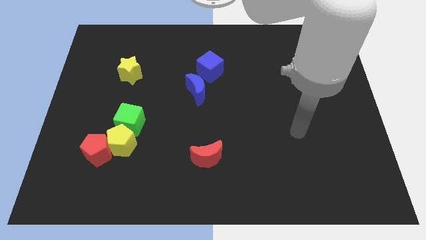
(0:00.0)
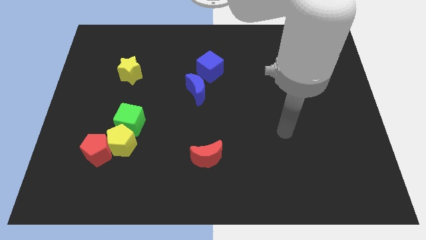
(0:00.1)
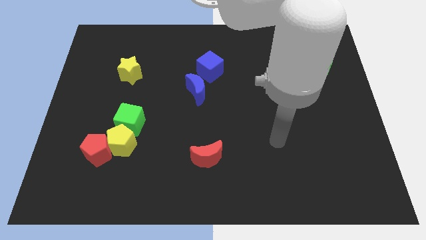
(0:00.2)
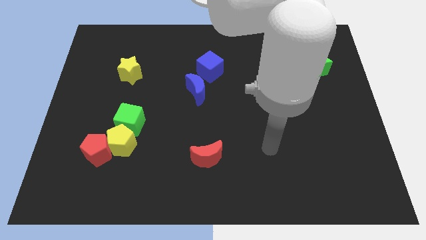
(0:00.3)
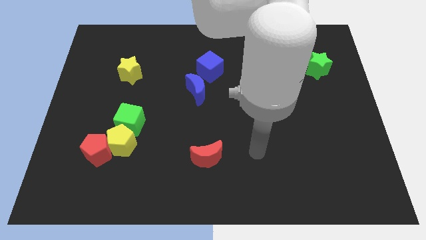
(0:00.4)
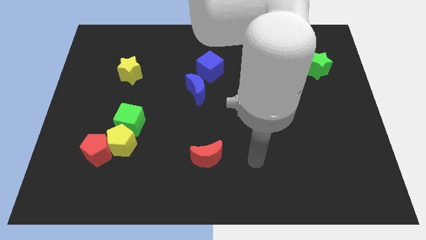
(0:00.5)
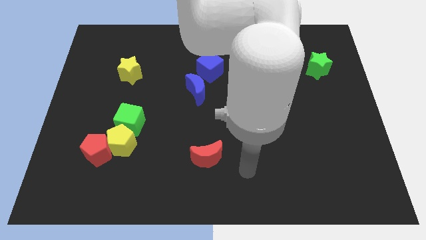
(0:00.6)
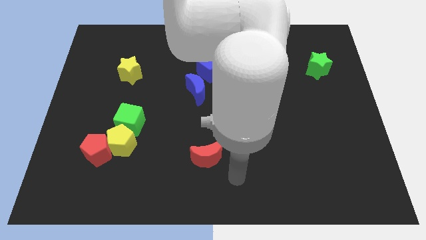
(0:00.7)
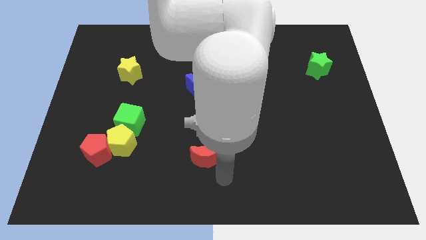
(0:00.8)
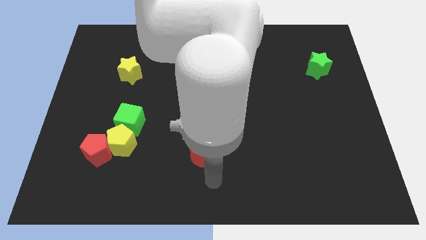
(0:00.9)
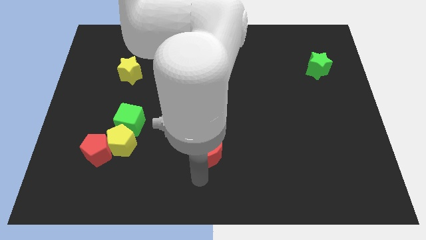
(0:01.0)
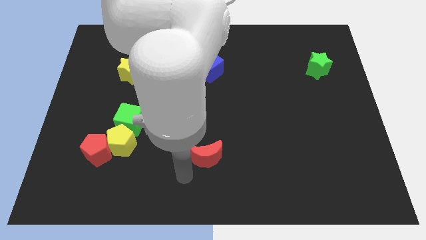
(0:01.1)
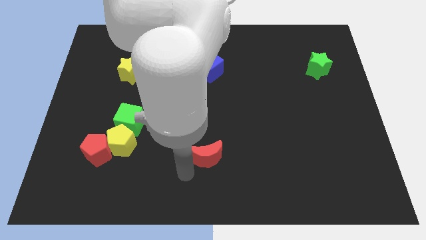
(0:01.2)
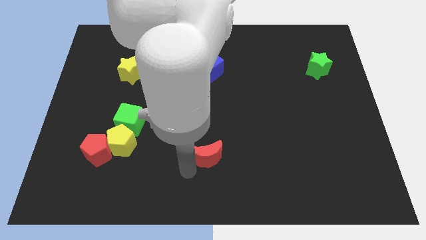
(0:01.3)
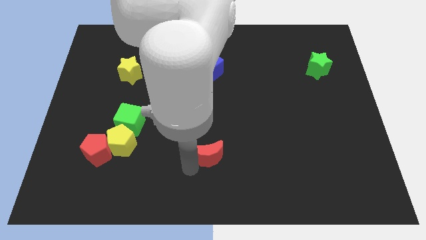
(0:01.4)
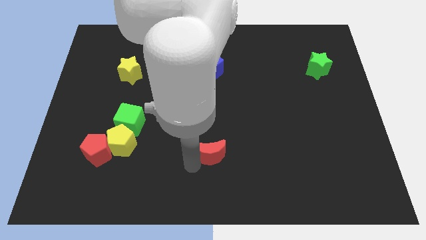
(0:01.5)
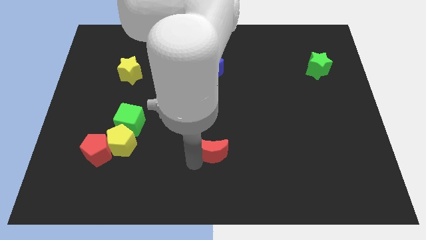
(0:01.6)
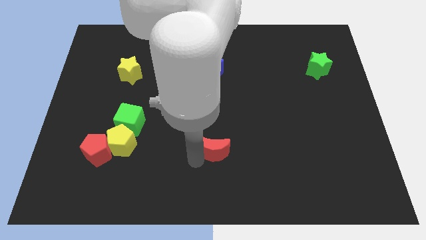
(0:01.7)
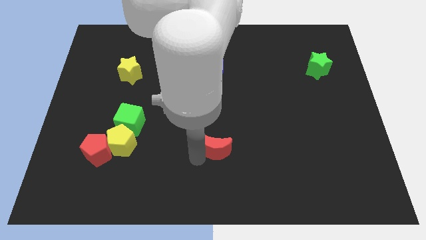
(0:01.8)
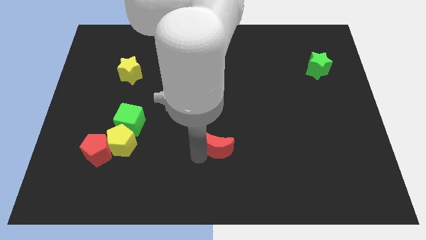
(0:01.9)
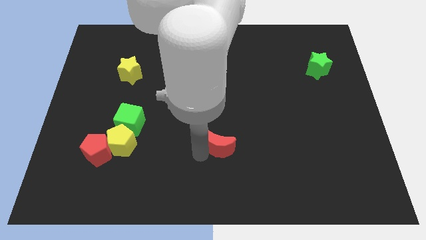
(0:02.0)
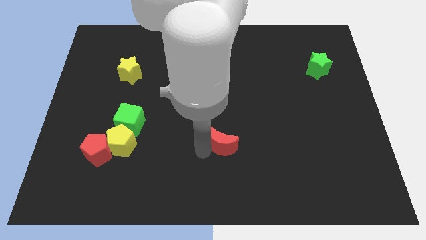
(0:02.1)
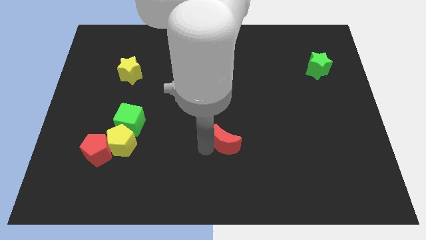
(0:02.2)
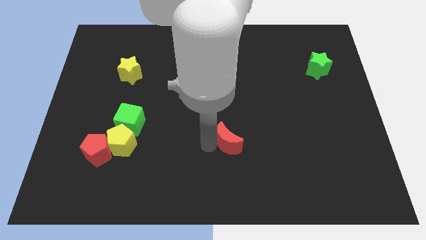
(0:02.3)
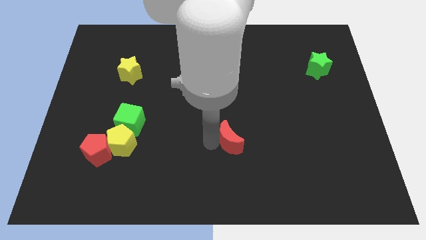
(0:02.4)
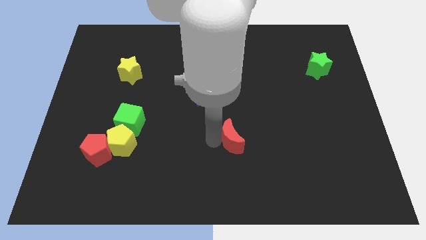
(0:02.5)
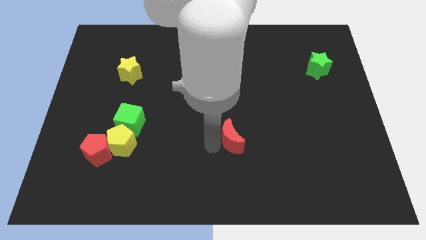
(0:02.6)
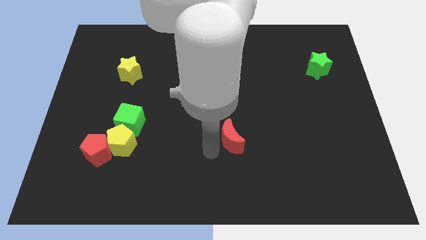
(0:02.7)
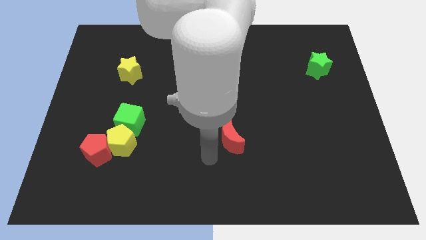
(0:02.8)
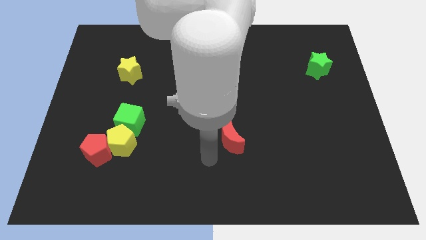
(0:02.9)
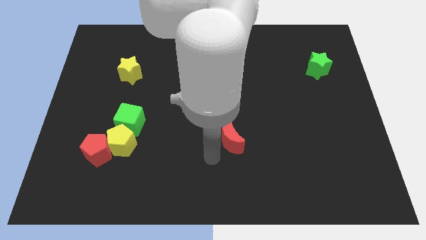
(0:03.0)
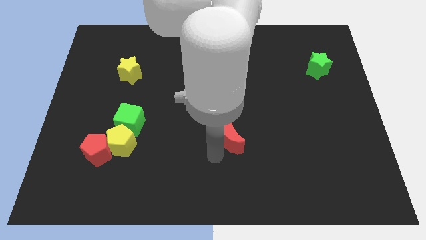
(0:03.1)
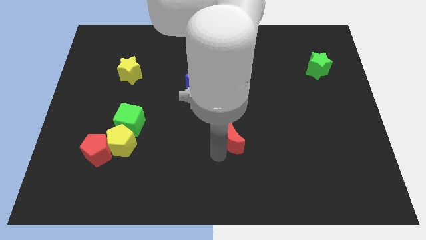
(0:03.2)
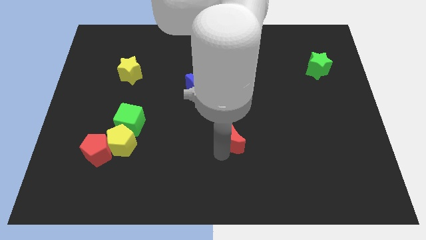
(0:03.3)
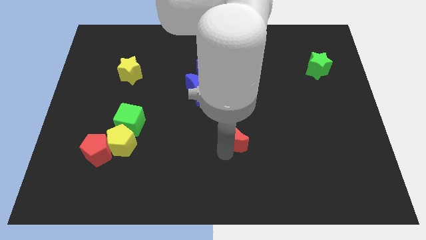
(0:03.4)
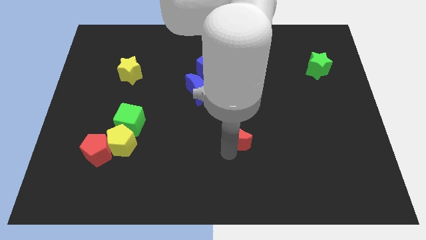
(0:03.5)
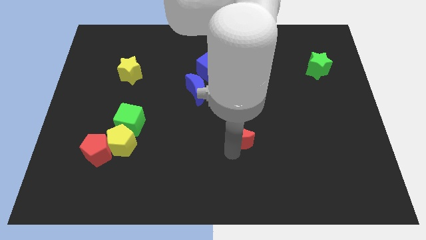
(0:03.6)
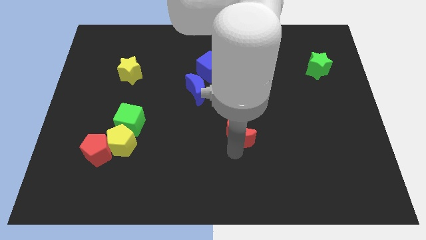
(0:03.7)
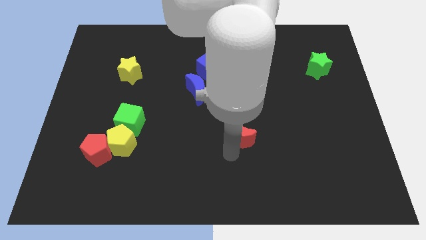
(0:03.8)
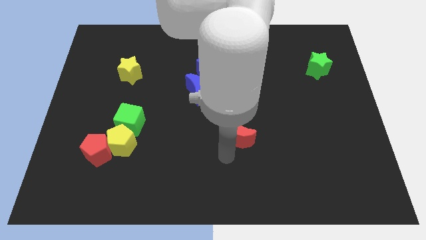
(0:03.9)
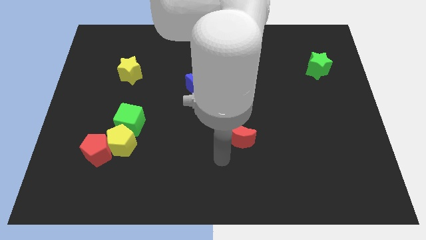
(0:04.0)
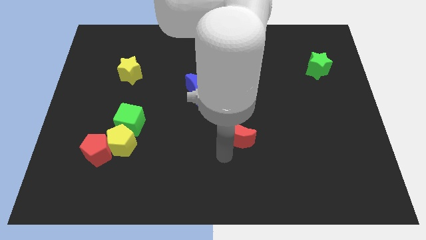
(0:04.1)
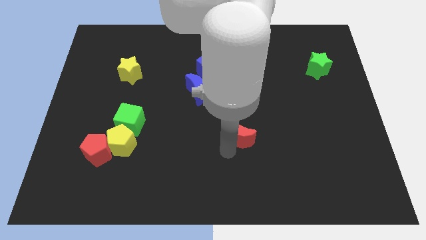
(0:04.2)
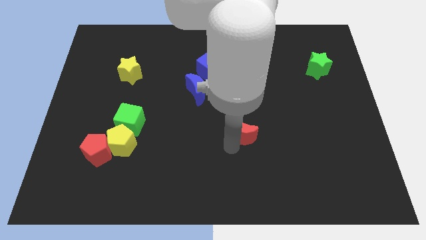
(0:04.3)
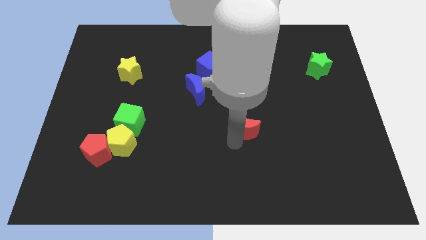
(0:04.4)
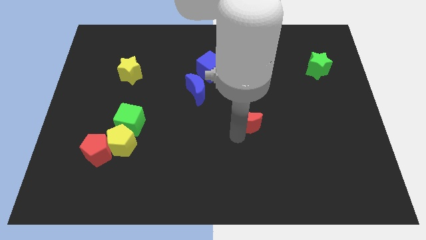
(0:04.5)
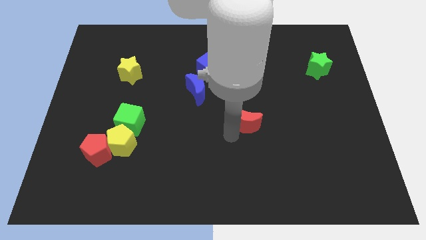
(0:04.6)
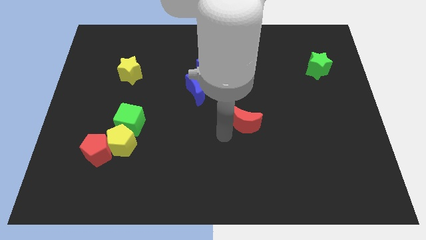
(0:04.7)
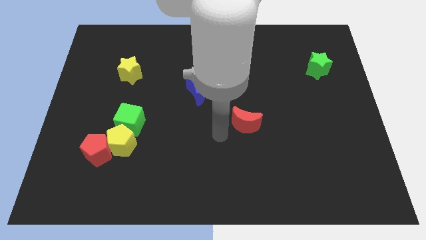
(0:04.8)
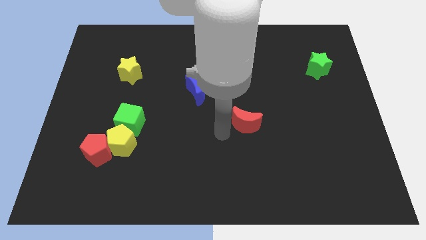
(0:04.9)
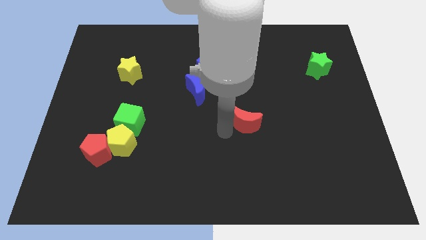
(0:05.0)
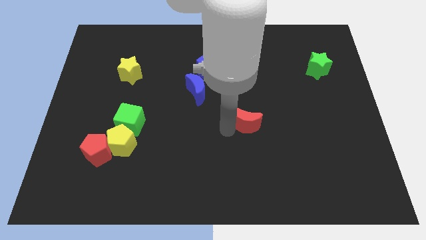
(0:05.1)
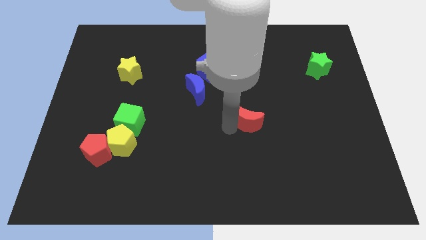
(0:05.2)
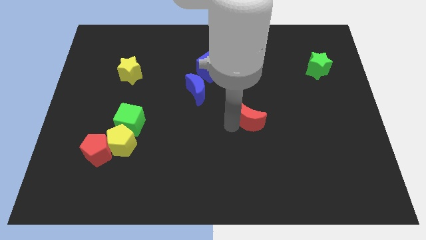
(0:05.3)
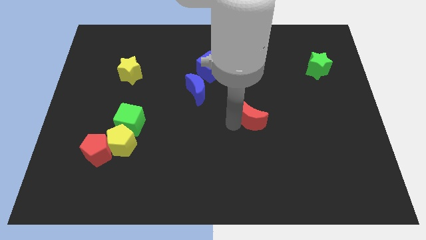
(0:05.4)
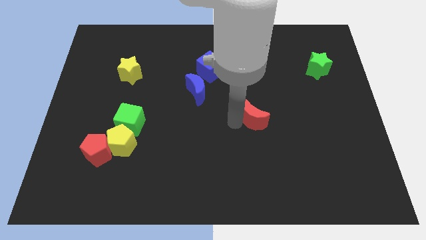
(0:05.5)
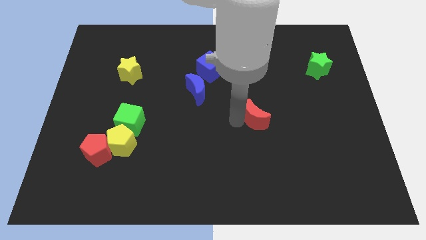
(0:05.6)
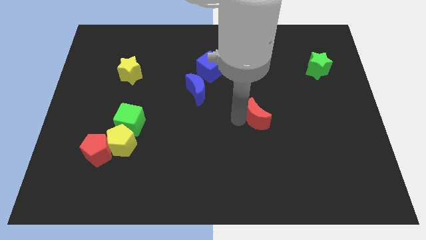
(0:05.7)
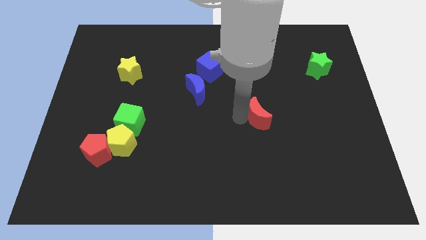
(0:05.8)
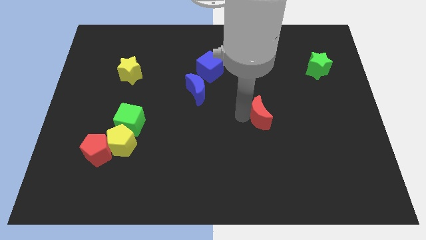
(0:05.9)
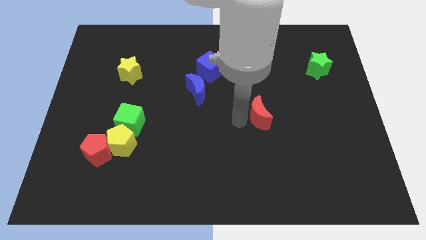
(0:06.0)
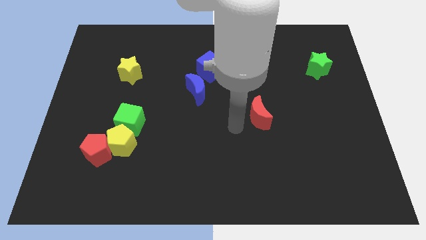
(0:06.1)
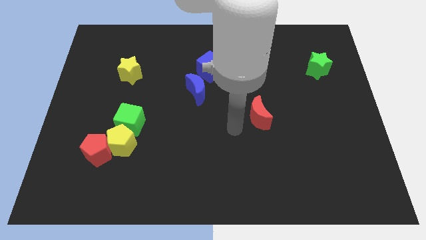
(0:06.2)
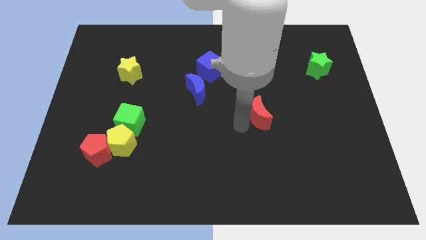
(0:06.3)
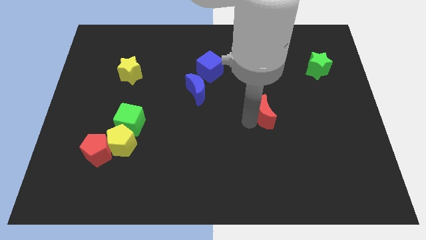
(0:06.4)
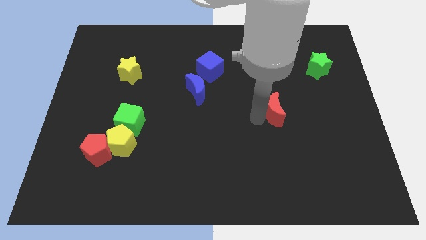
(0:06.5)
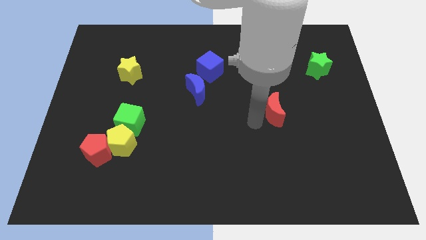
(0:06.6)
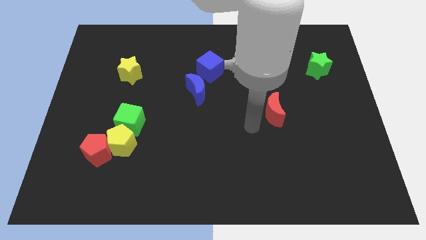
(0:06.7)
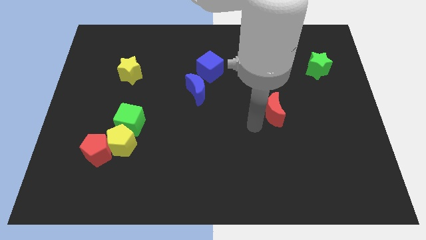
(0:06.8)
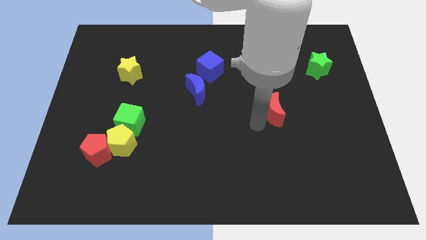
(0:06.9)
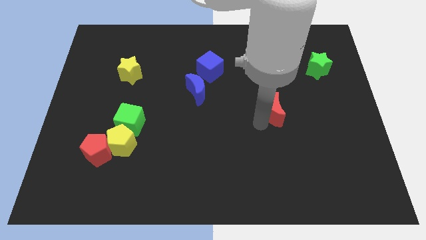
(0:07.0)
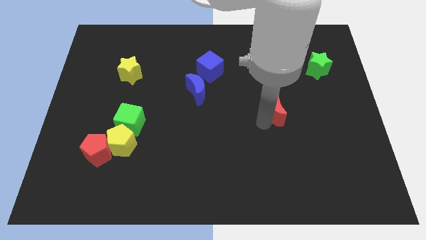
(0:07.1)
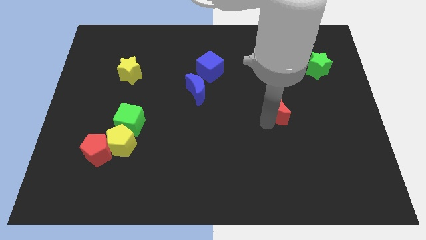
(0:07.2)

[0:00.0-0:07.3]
slide the red moon up and to the right diagonally

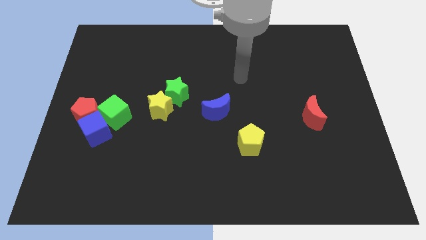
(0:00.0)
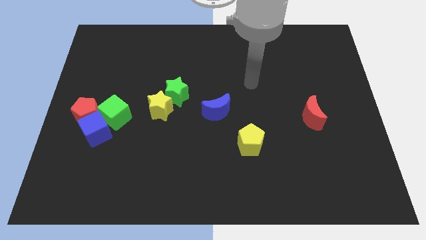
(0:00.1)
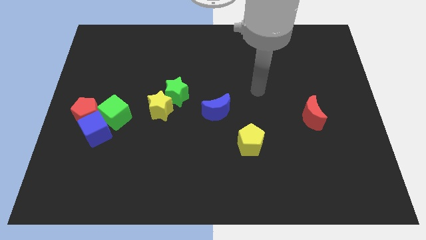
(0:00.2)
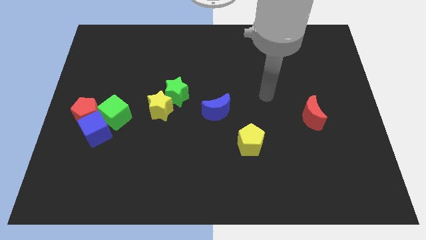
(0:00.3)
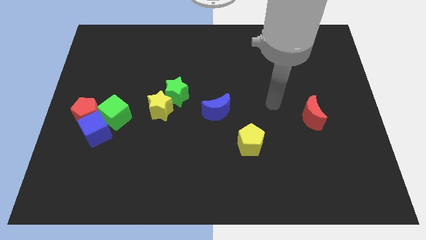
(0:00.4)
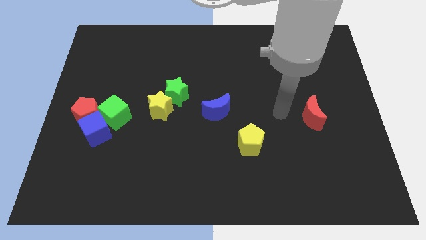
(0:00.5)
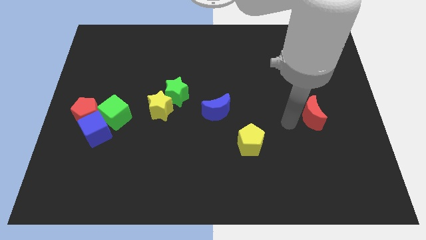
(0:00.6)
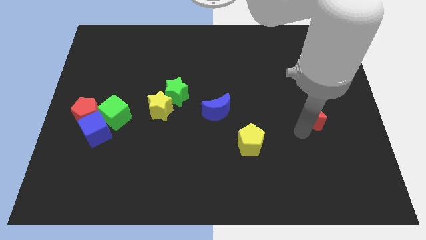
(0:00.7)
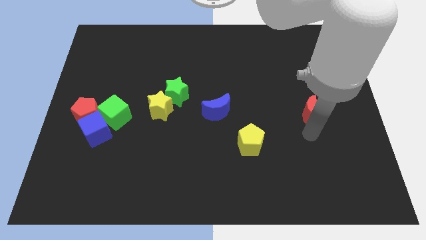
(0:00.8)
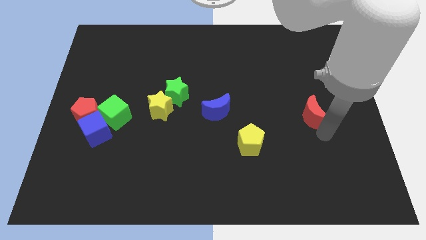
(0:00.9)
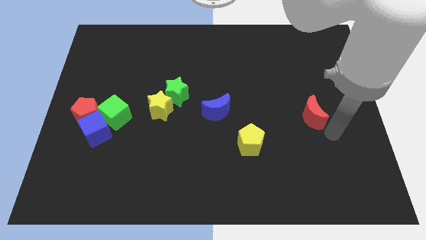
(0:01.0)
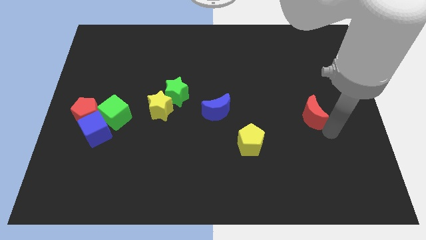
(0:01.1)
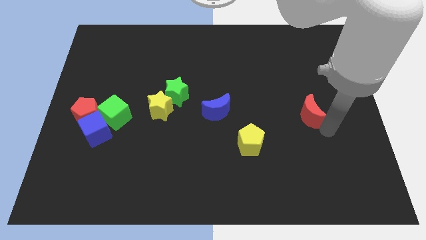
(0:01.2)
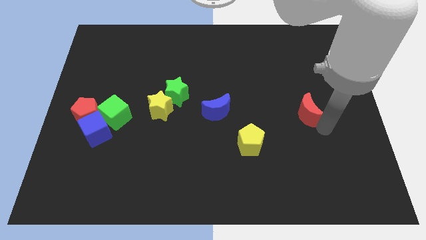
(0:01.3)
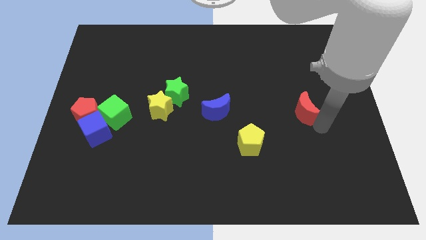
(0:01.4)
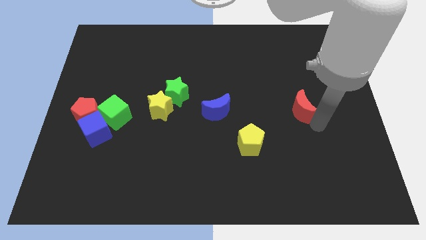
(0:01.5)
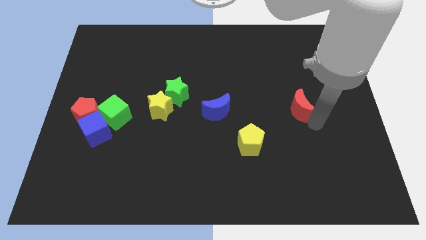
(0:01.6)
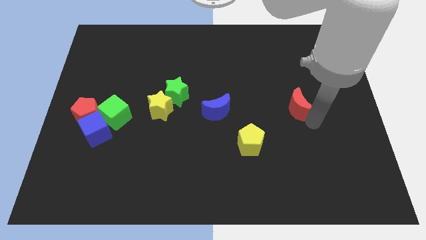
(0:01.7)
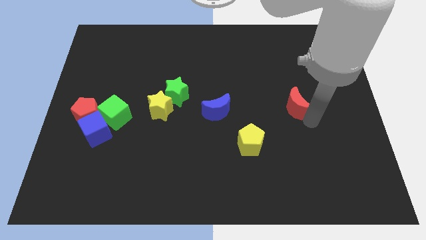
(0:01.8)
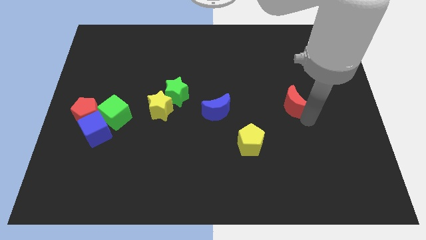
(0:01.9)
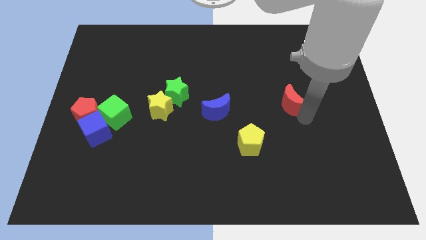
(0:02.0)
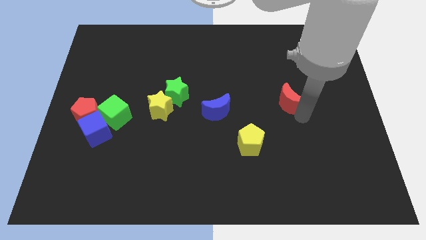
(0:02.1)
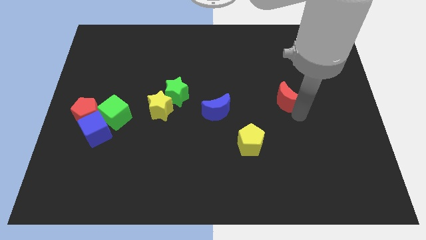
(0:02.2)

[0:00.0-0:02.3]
slide the red moon a bit diagonally upwards and to the left
